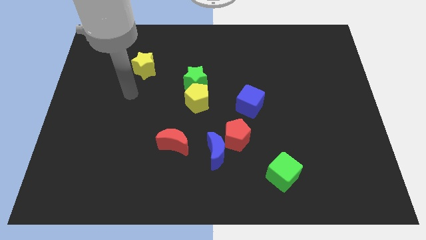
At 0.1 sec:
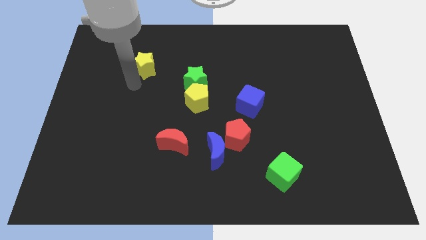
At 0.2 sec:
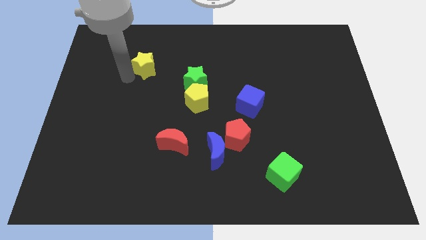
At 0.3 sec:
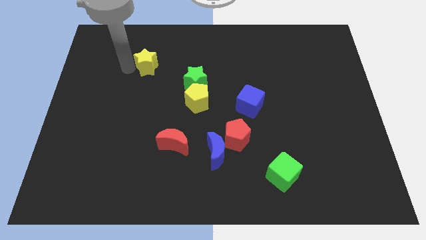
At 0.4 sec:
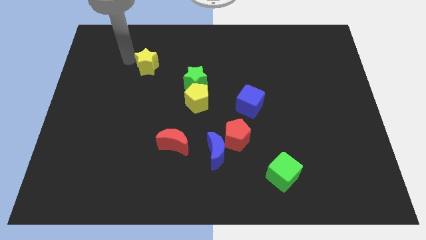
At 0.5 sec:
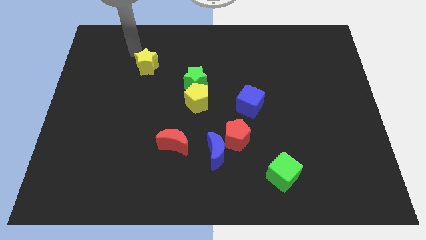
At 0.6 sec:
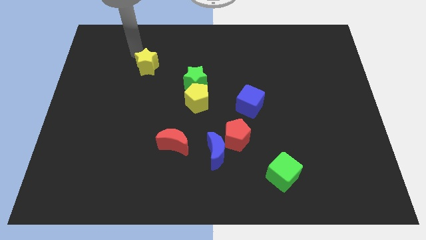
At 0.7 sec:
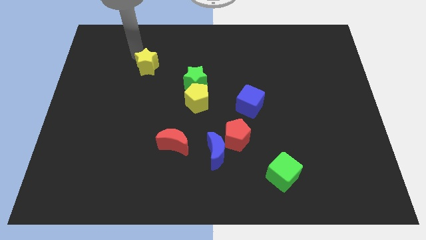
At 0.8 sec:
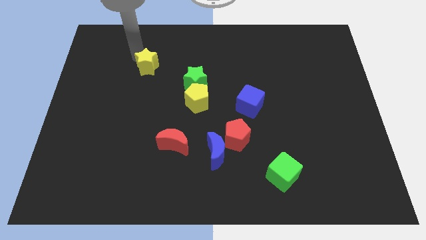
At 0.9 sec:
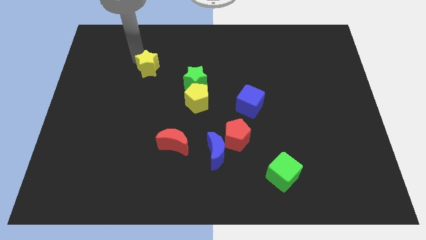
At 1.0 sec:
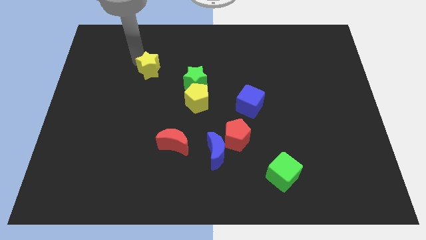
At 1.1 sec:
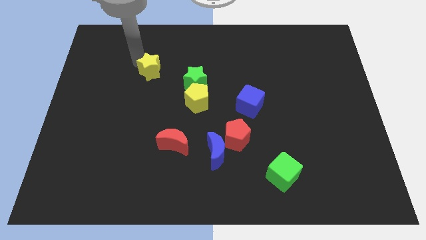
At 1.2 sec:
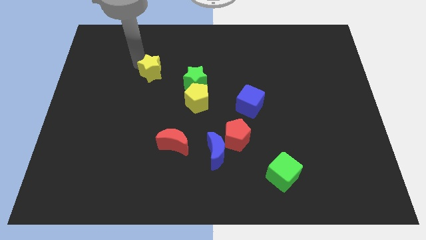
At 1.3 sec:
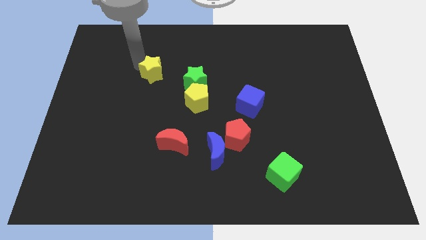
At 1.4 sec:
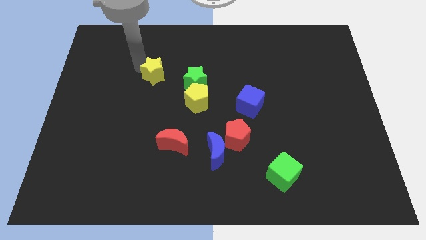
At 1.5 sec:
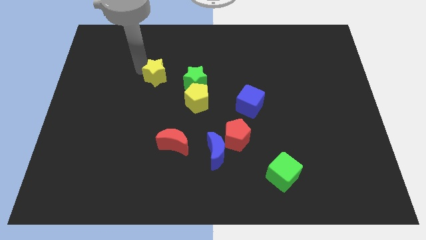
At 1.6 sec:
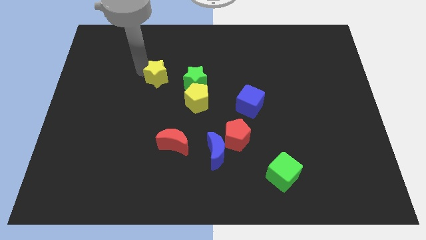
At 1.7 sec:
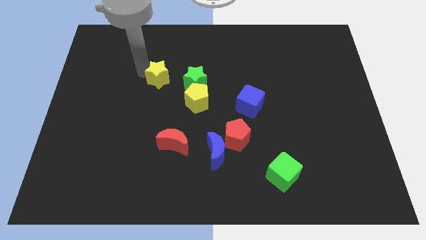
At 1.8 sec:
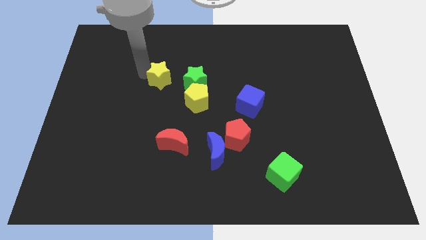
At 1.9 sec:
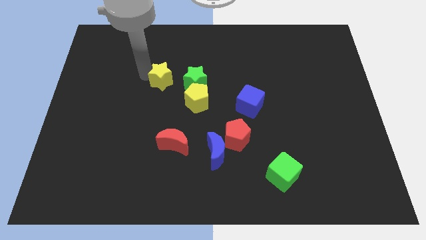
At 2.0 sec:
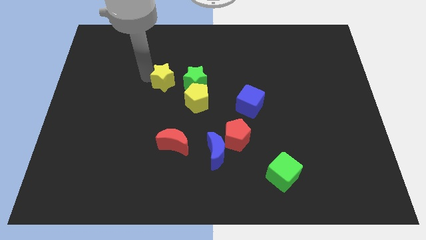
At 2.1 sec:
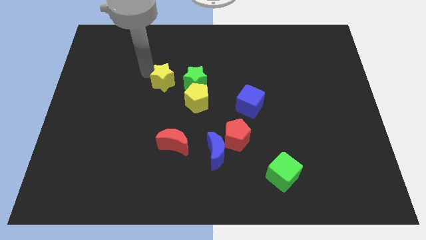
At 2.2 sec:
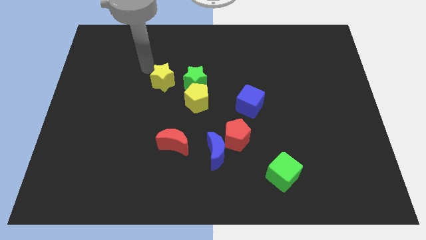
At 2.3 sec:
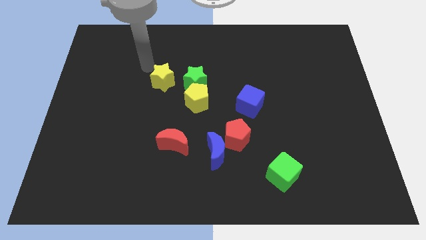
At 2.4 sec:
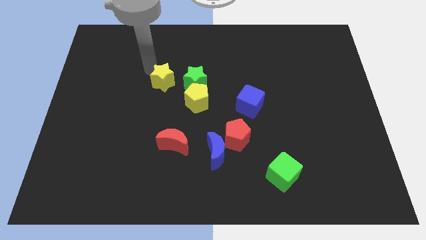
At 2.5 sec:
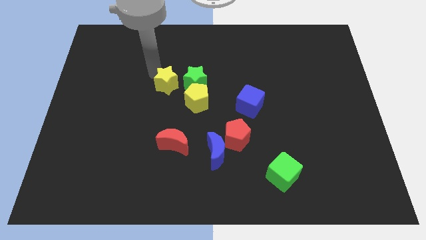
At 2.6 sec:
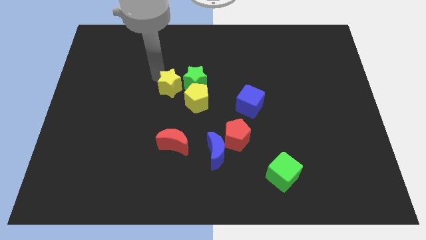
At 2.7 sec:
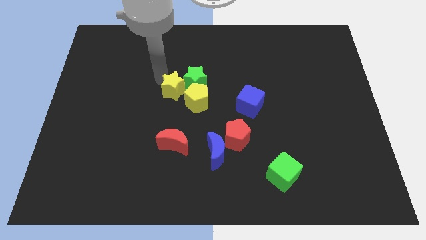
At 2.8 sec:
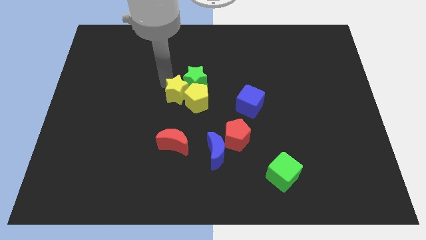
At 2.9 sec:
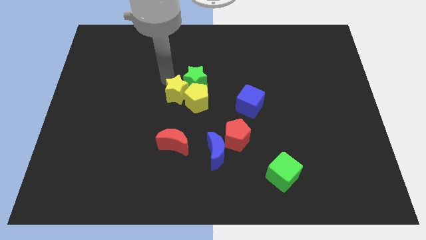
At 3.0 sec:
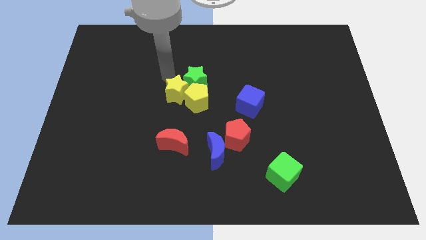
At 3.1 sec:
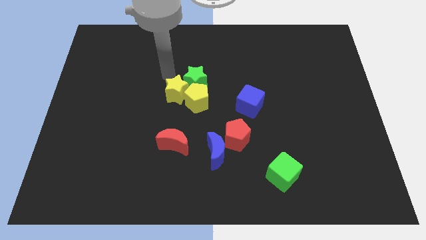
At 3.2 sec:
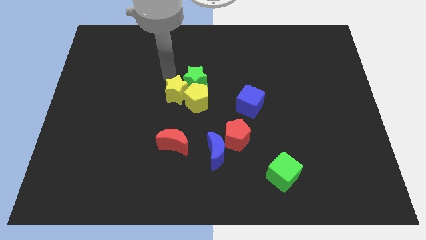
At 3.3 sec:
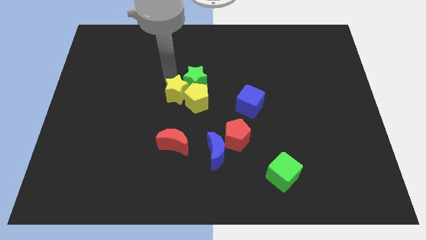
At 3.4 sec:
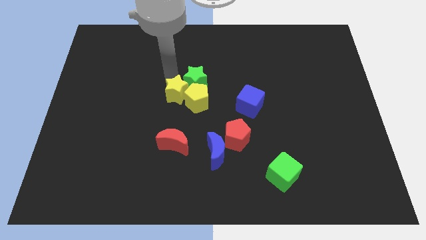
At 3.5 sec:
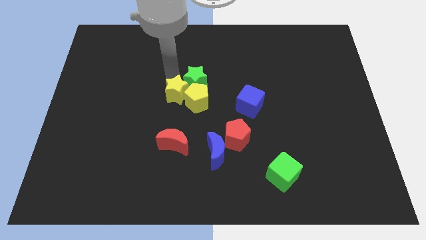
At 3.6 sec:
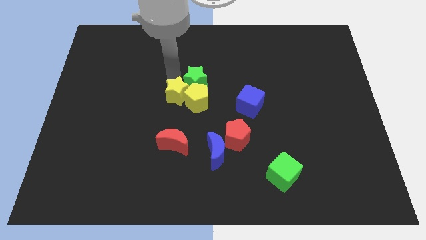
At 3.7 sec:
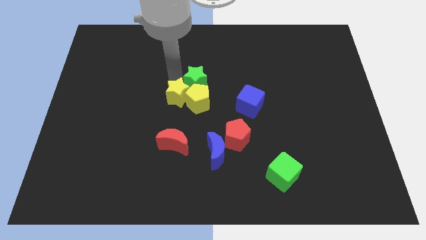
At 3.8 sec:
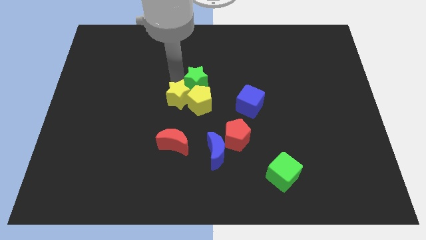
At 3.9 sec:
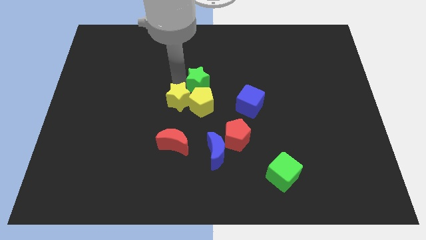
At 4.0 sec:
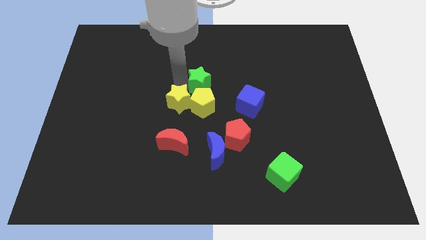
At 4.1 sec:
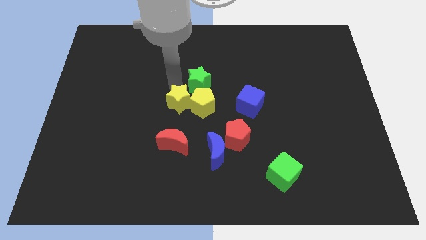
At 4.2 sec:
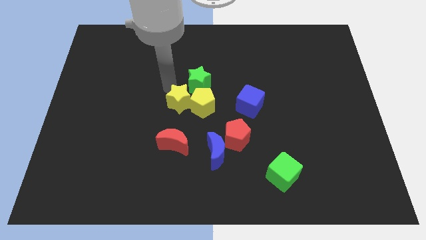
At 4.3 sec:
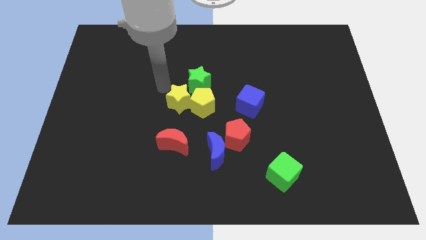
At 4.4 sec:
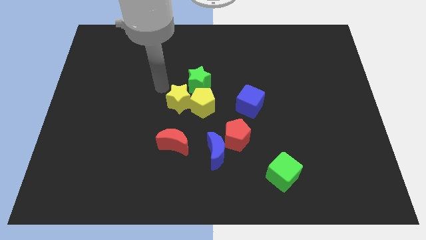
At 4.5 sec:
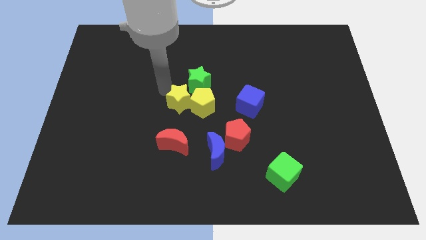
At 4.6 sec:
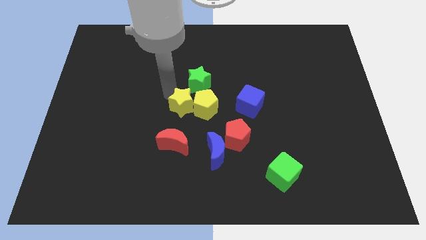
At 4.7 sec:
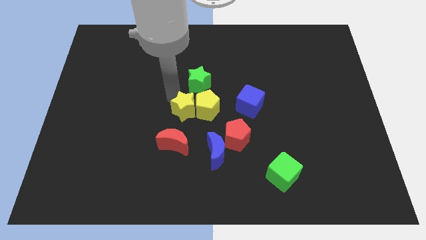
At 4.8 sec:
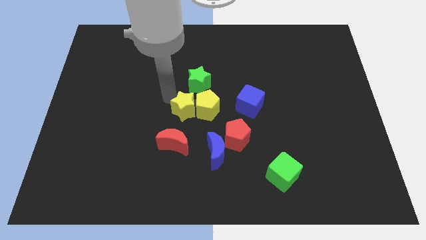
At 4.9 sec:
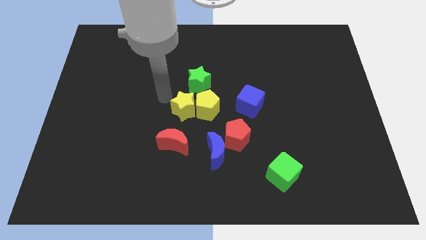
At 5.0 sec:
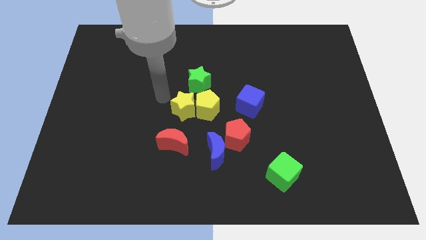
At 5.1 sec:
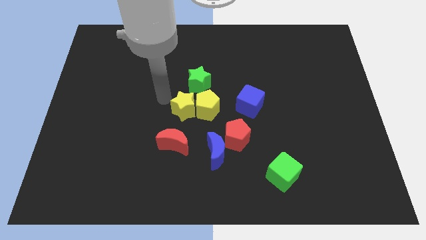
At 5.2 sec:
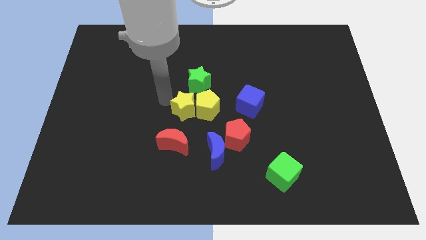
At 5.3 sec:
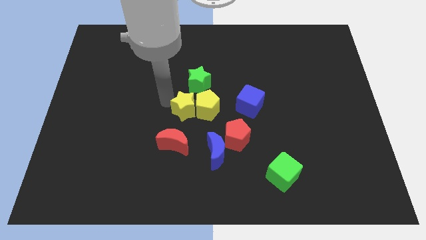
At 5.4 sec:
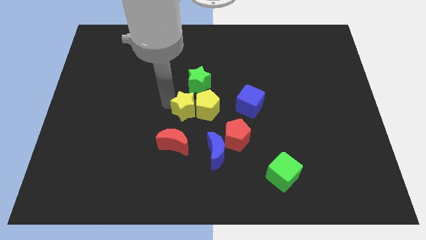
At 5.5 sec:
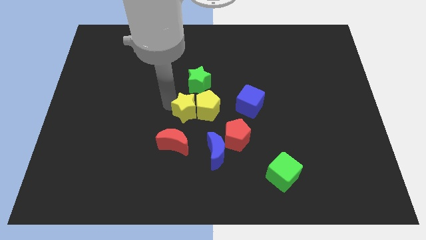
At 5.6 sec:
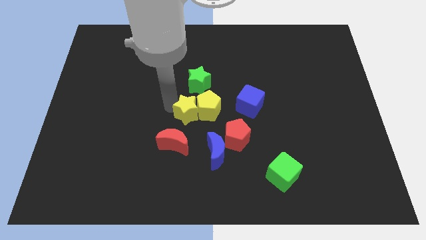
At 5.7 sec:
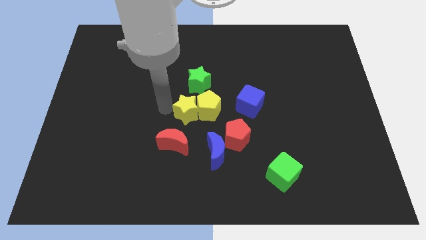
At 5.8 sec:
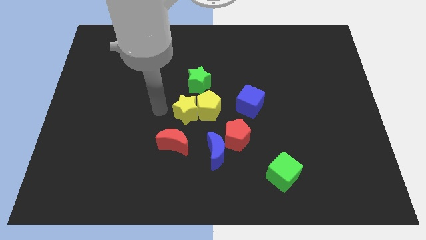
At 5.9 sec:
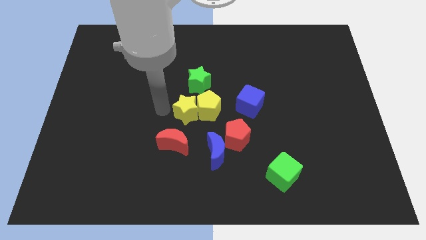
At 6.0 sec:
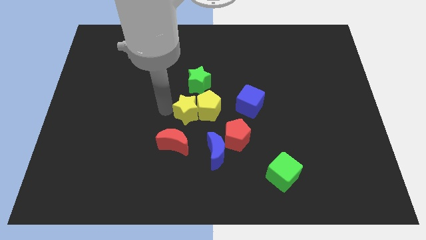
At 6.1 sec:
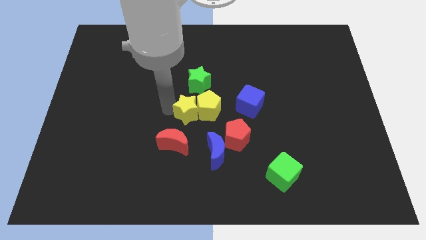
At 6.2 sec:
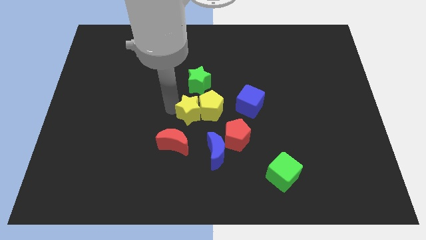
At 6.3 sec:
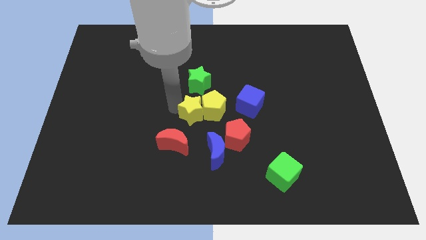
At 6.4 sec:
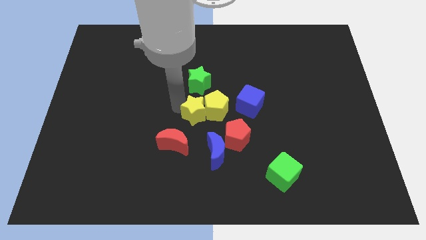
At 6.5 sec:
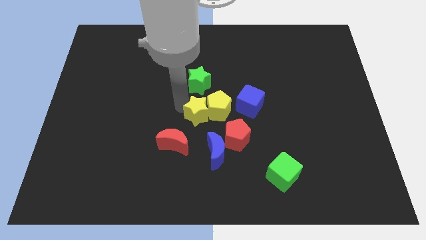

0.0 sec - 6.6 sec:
slide the yellow star to the top side of the blue moon
